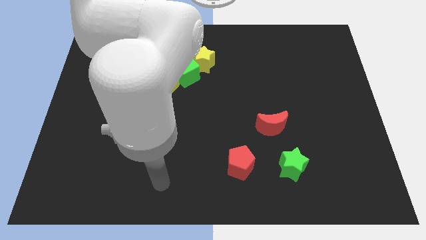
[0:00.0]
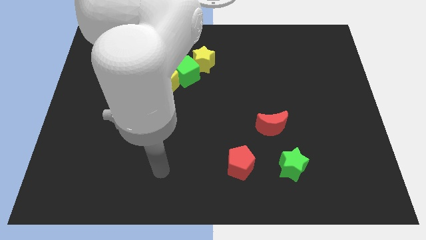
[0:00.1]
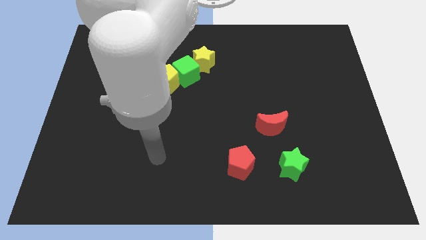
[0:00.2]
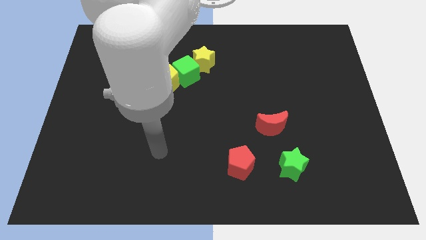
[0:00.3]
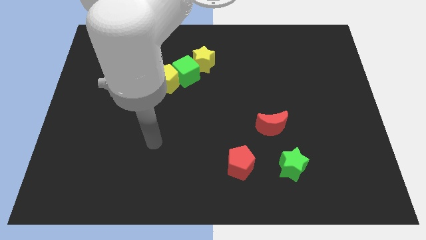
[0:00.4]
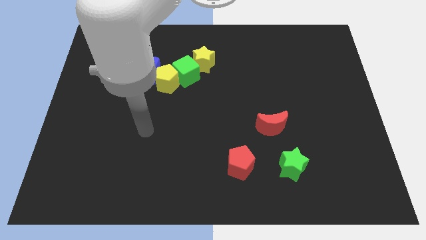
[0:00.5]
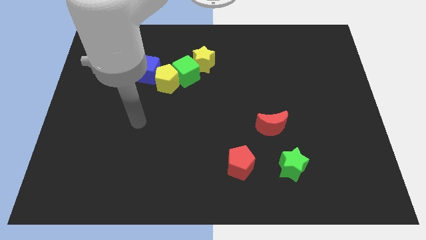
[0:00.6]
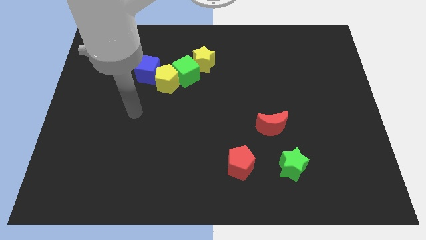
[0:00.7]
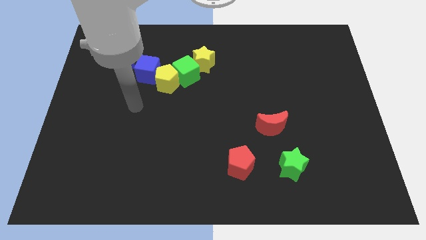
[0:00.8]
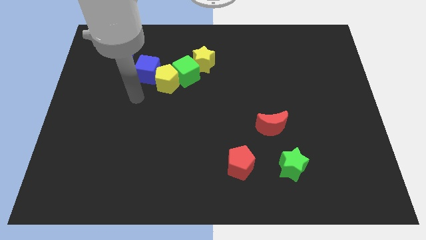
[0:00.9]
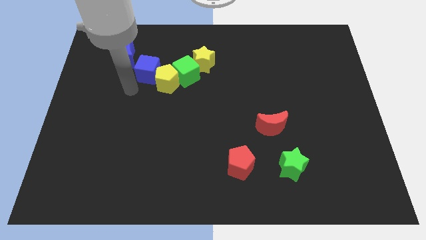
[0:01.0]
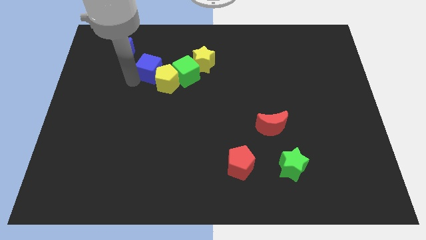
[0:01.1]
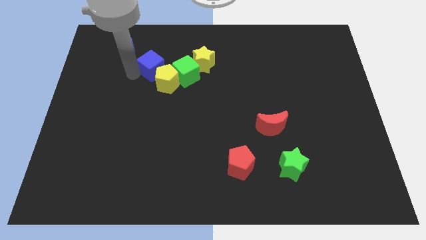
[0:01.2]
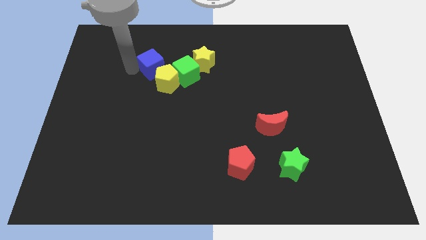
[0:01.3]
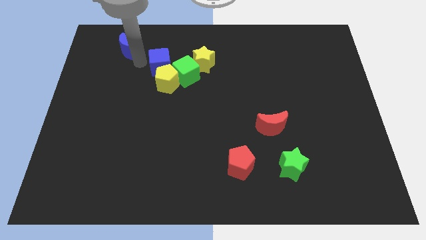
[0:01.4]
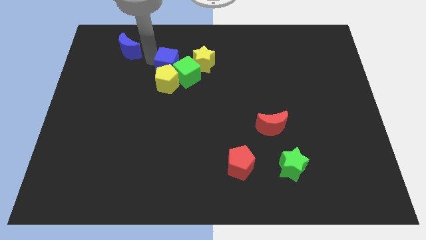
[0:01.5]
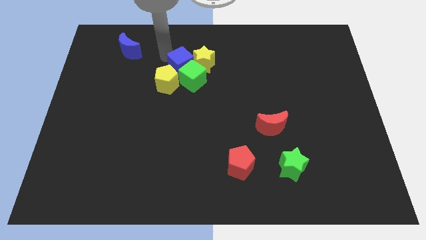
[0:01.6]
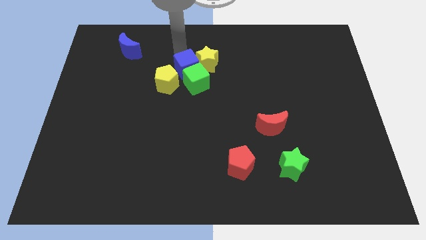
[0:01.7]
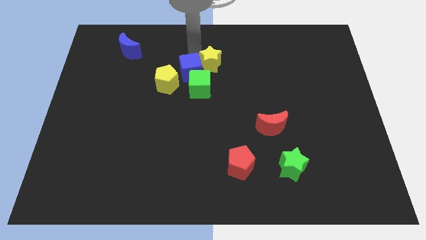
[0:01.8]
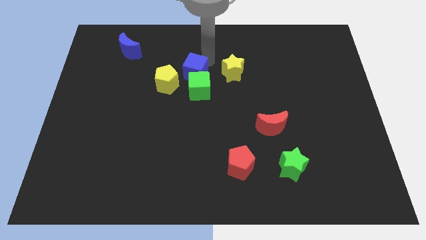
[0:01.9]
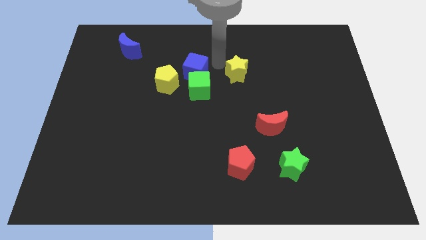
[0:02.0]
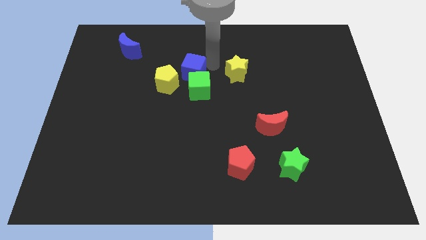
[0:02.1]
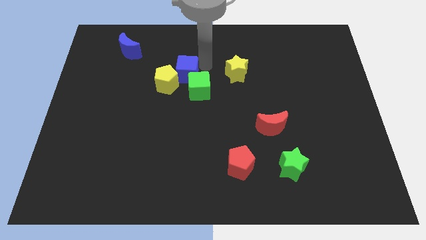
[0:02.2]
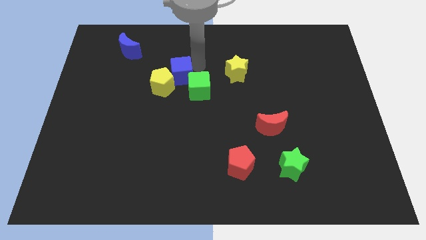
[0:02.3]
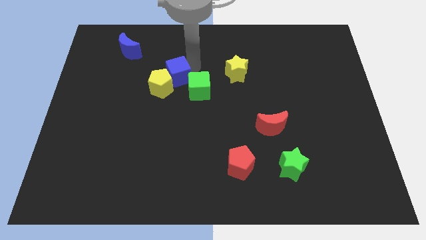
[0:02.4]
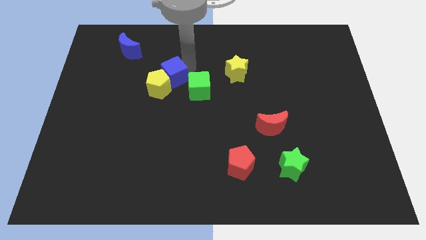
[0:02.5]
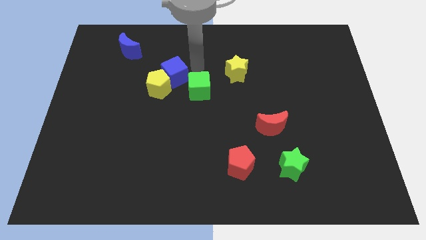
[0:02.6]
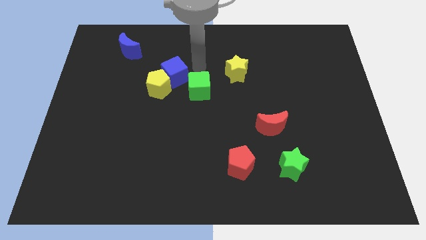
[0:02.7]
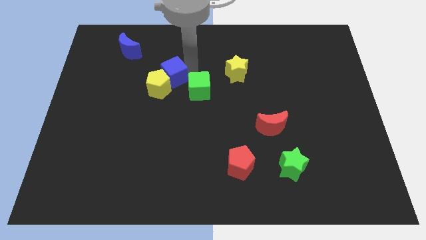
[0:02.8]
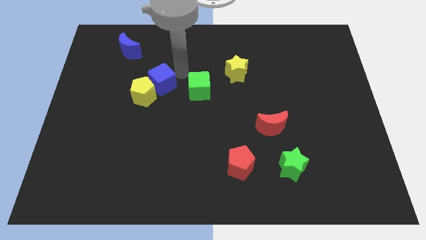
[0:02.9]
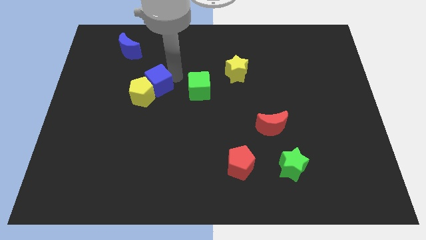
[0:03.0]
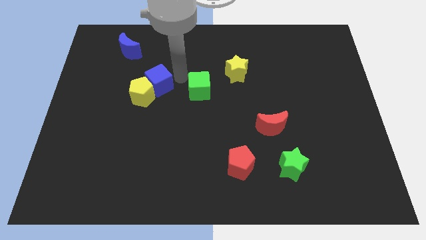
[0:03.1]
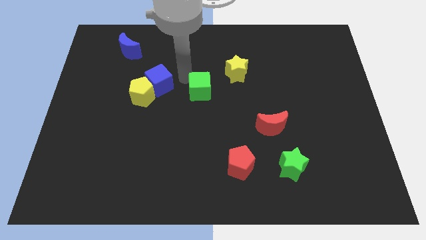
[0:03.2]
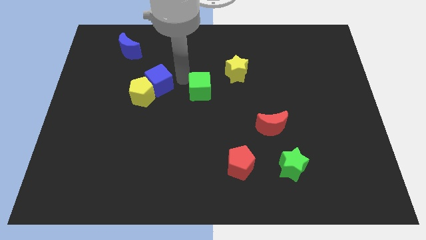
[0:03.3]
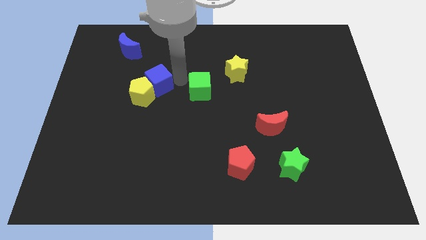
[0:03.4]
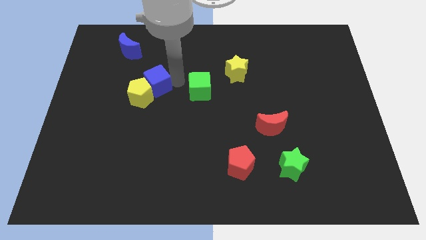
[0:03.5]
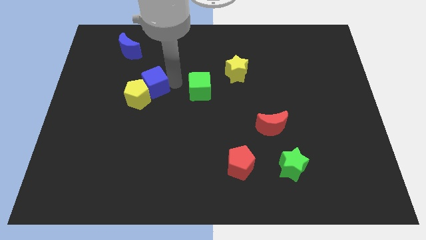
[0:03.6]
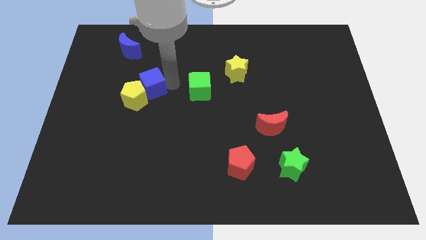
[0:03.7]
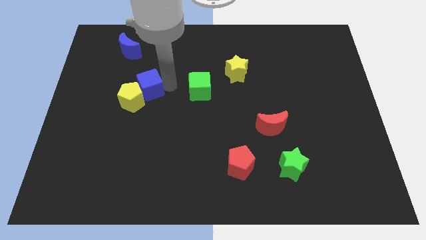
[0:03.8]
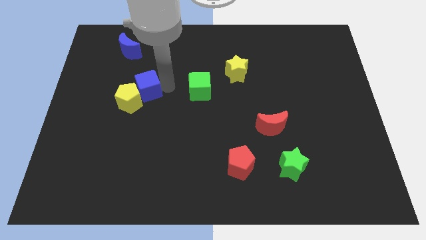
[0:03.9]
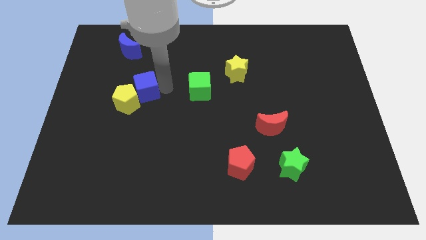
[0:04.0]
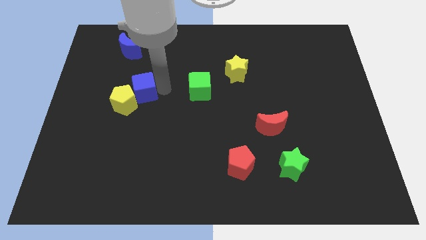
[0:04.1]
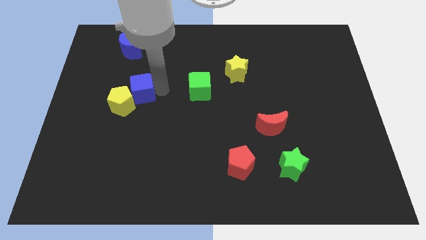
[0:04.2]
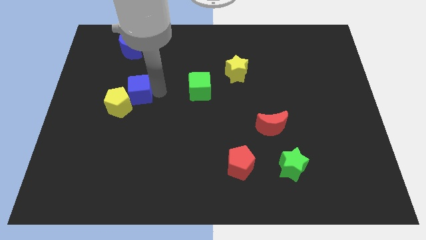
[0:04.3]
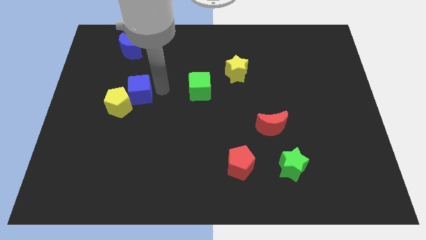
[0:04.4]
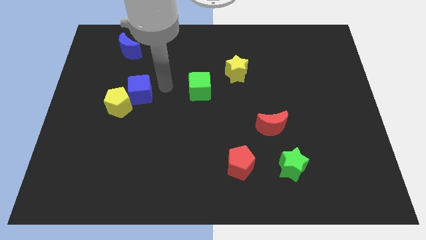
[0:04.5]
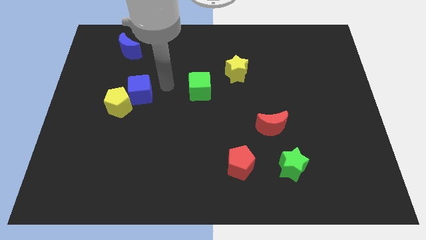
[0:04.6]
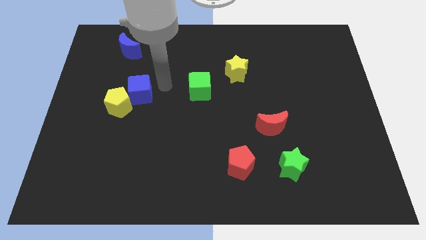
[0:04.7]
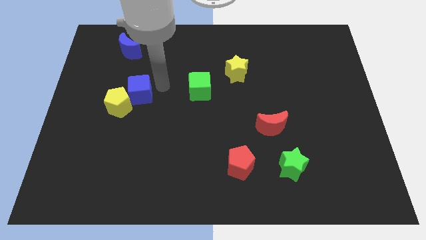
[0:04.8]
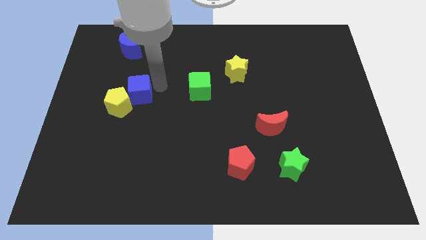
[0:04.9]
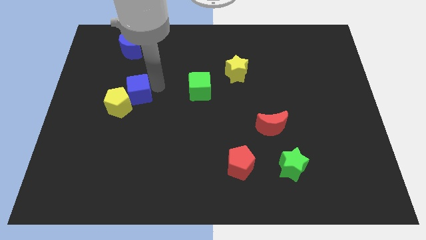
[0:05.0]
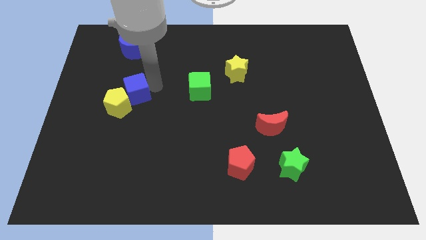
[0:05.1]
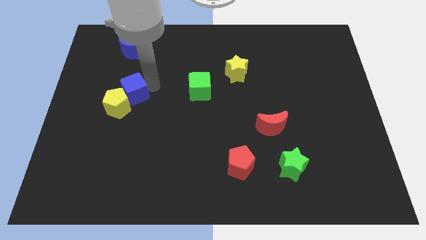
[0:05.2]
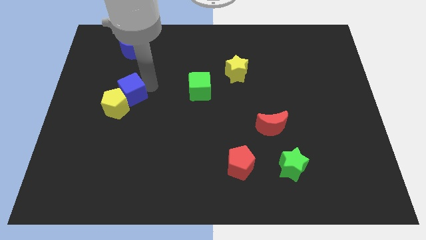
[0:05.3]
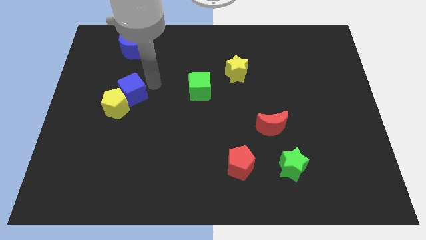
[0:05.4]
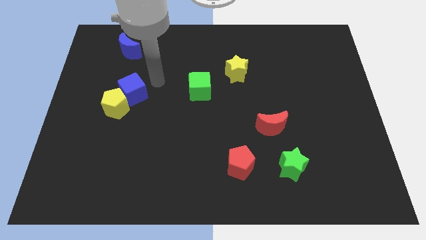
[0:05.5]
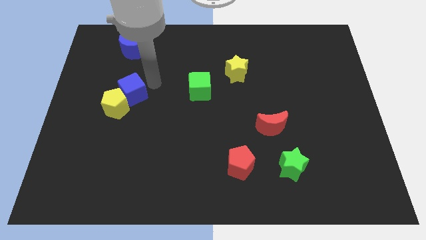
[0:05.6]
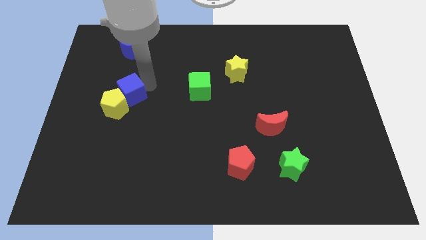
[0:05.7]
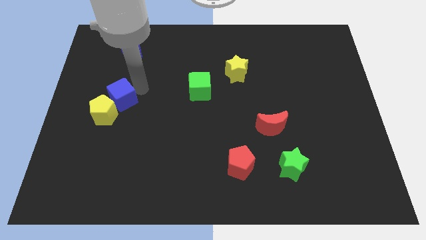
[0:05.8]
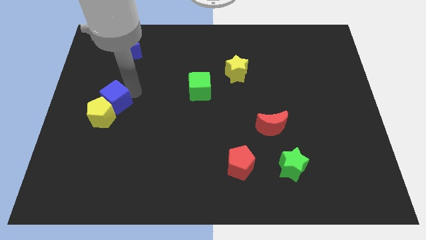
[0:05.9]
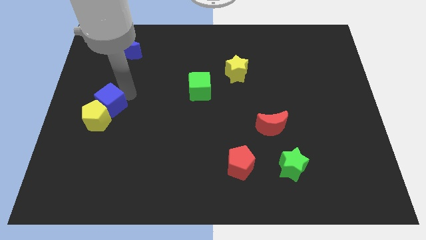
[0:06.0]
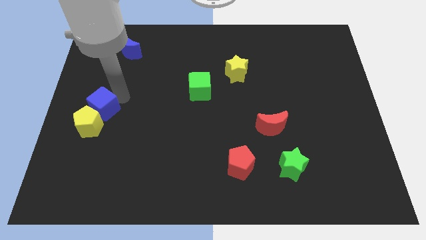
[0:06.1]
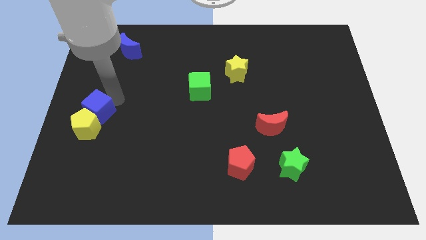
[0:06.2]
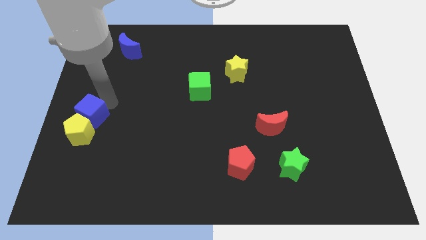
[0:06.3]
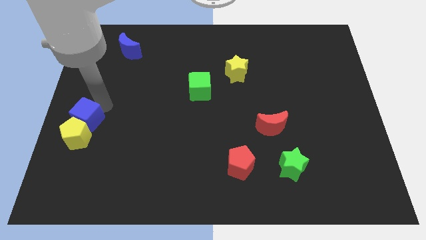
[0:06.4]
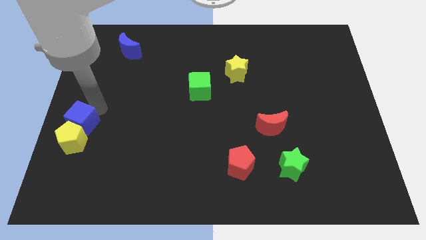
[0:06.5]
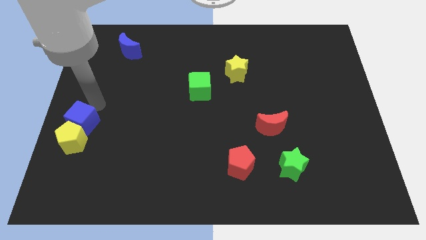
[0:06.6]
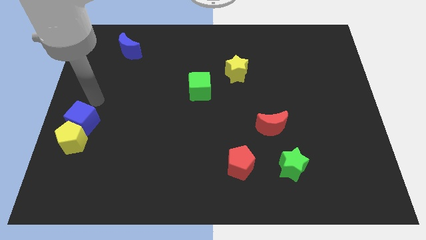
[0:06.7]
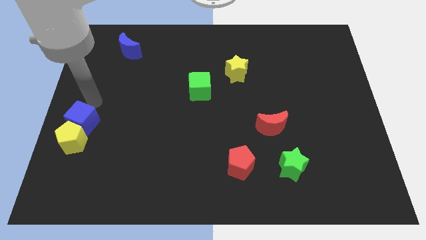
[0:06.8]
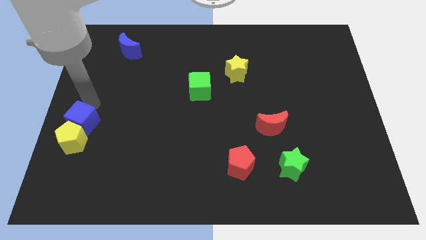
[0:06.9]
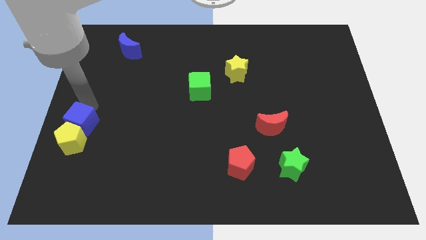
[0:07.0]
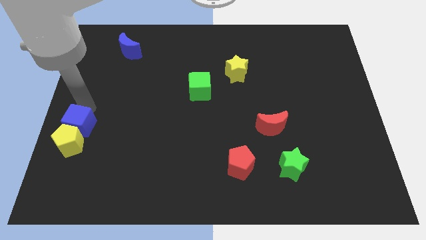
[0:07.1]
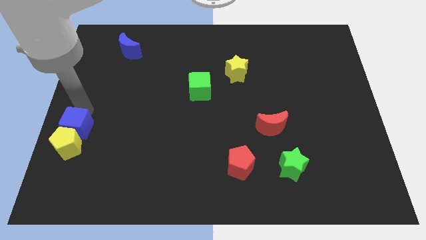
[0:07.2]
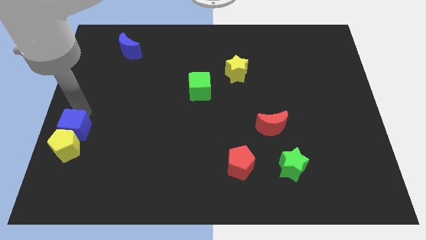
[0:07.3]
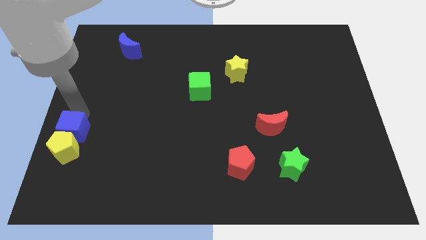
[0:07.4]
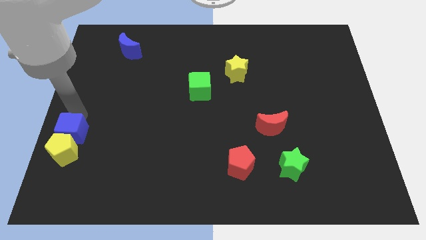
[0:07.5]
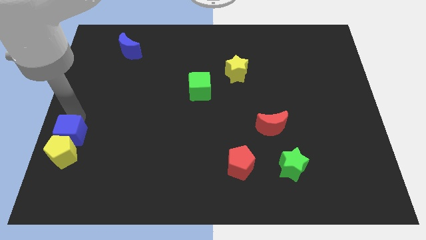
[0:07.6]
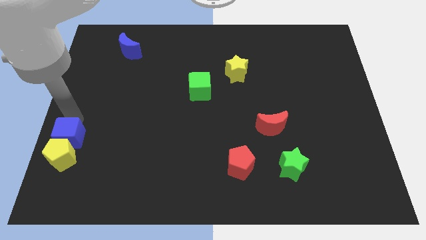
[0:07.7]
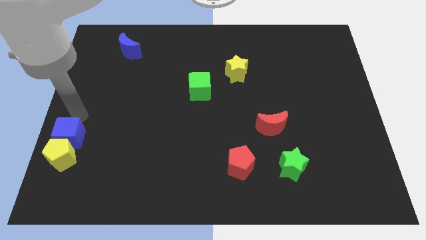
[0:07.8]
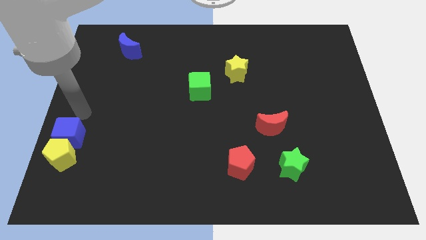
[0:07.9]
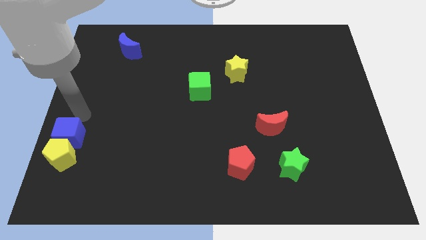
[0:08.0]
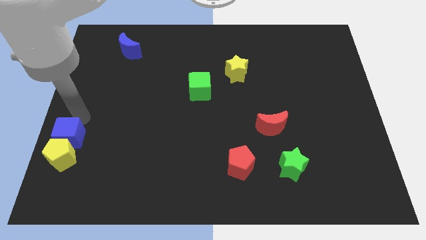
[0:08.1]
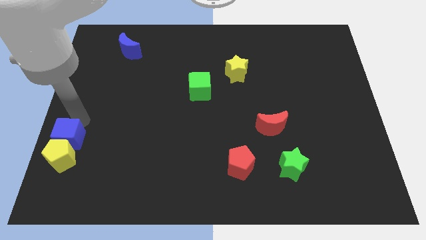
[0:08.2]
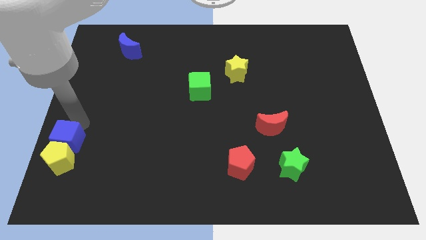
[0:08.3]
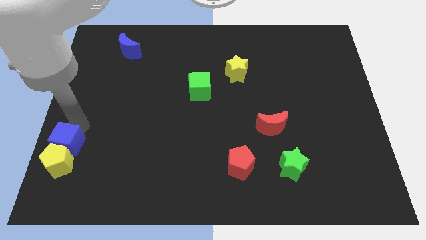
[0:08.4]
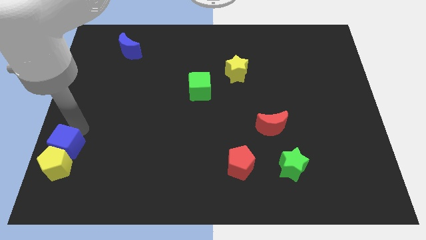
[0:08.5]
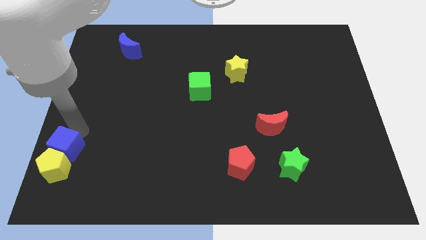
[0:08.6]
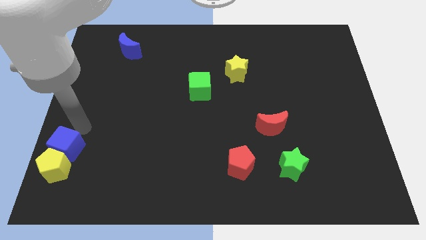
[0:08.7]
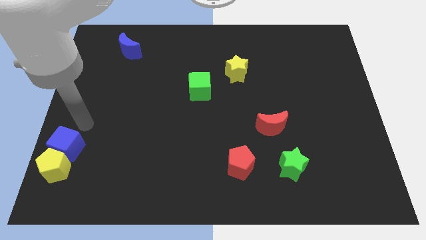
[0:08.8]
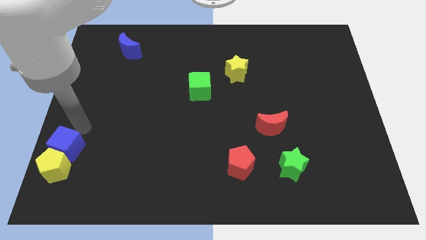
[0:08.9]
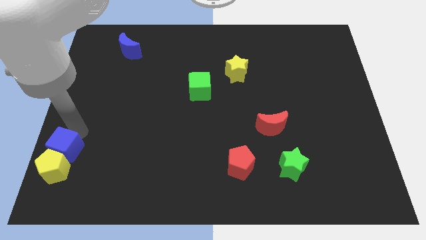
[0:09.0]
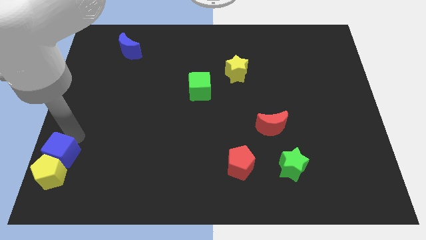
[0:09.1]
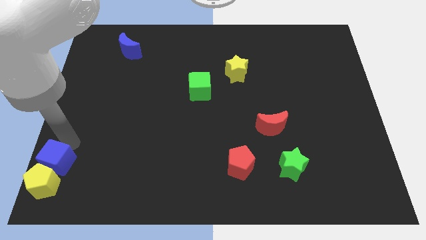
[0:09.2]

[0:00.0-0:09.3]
push the blue cube to the bottom left corner
